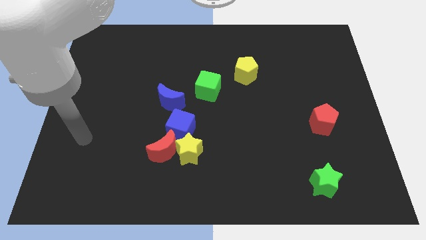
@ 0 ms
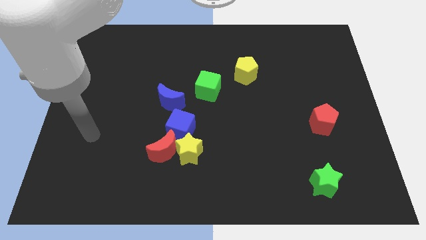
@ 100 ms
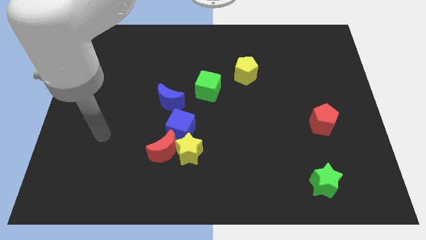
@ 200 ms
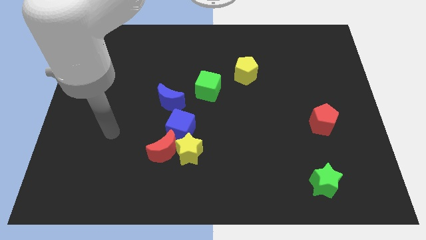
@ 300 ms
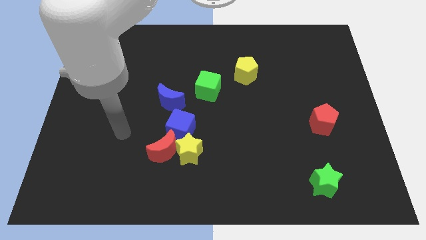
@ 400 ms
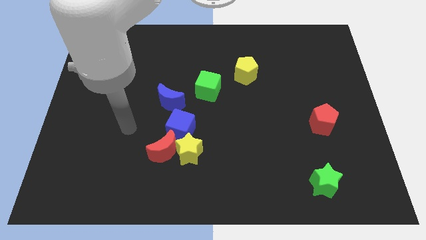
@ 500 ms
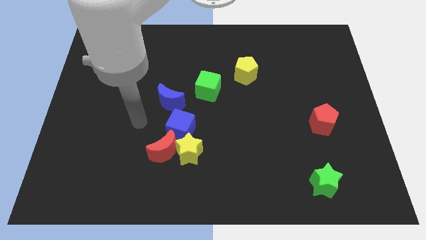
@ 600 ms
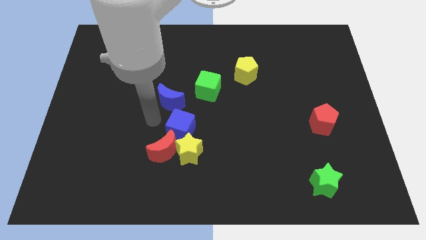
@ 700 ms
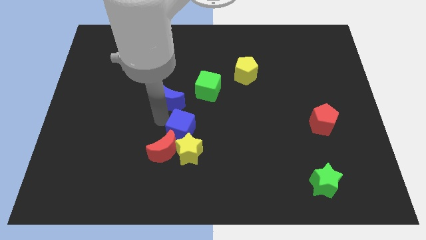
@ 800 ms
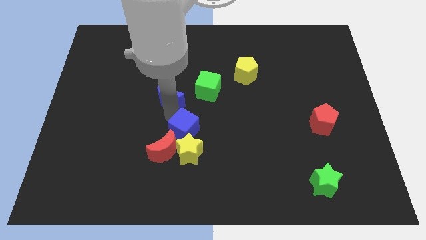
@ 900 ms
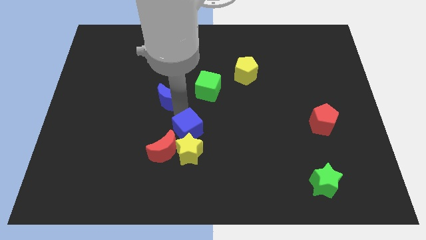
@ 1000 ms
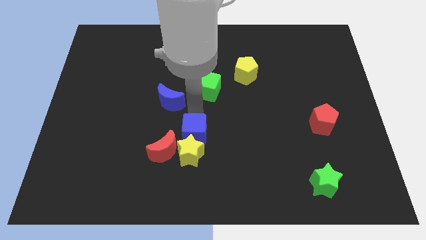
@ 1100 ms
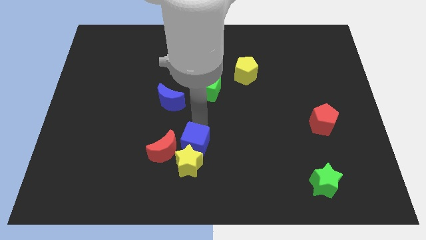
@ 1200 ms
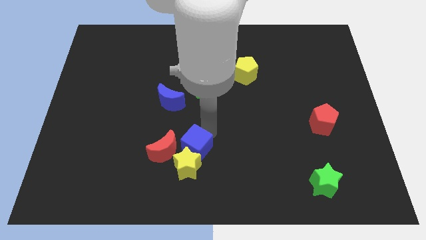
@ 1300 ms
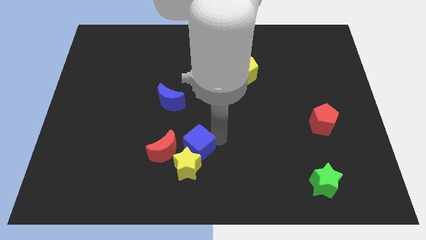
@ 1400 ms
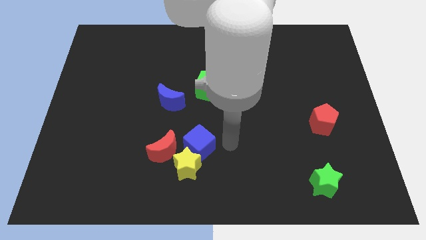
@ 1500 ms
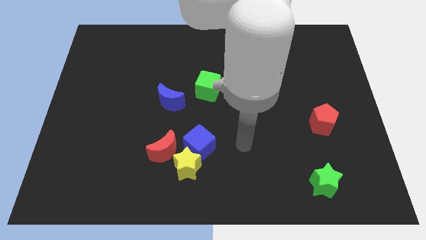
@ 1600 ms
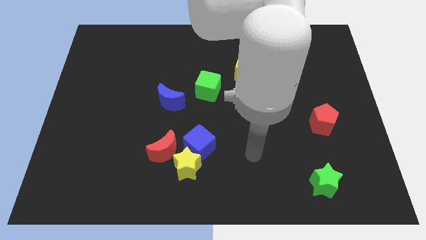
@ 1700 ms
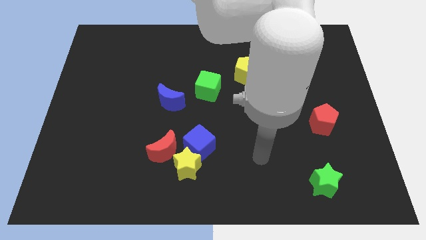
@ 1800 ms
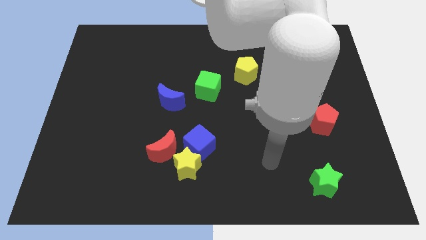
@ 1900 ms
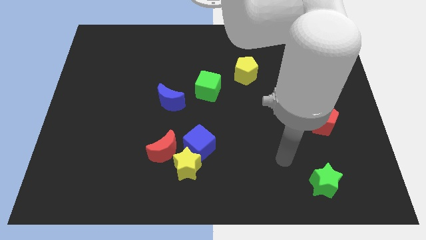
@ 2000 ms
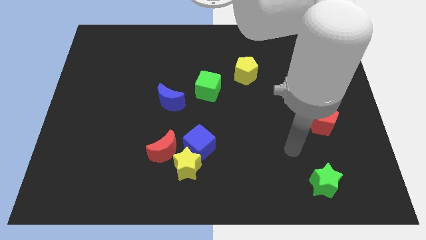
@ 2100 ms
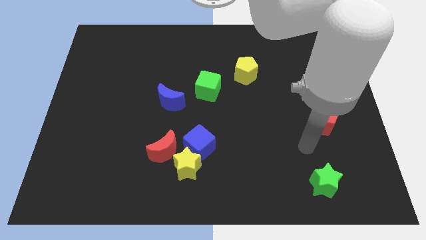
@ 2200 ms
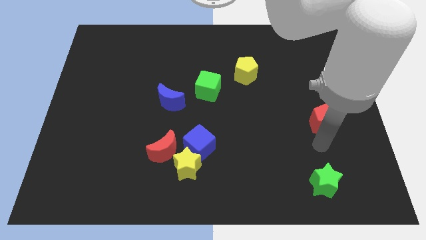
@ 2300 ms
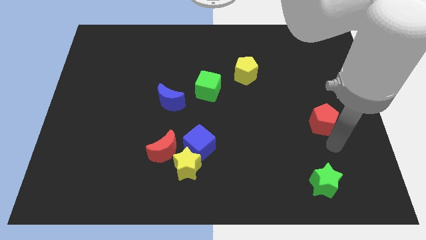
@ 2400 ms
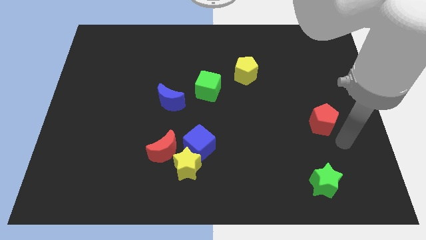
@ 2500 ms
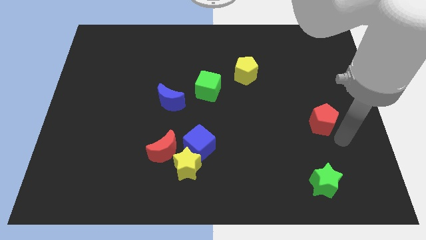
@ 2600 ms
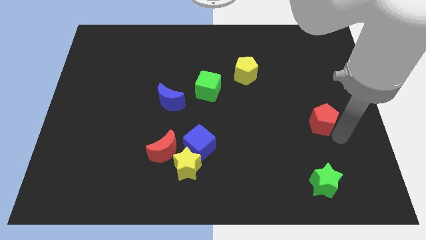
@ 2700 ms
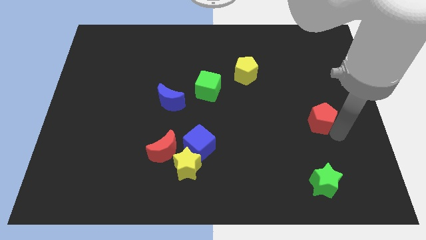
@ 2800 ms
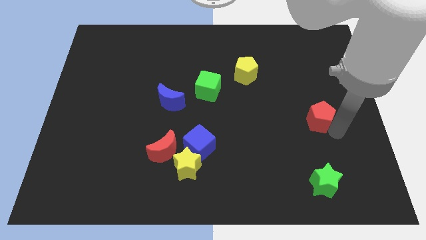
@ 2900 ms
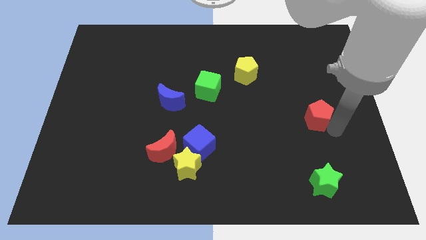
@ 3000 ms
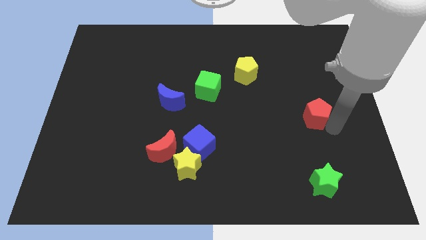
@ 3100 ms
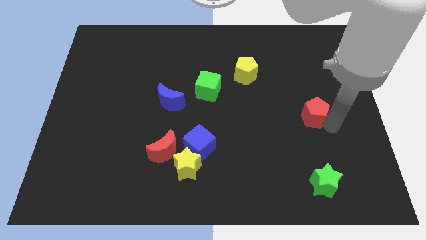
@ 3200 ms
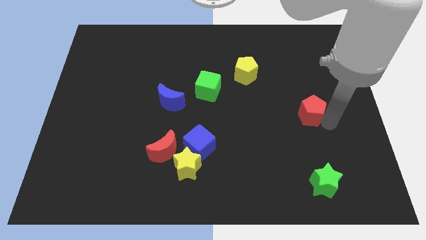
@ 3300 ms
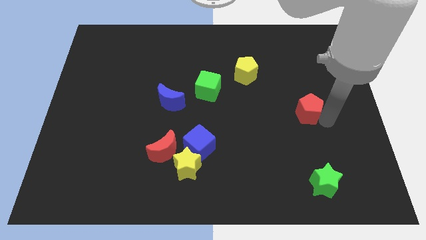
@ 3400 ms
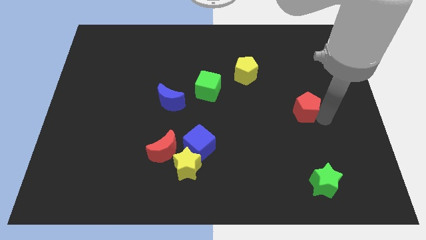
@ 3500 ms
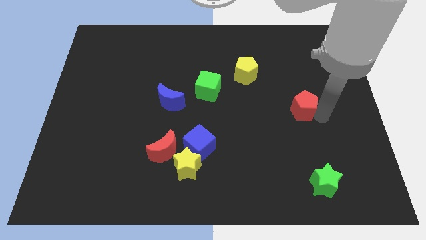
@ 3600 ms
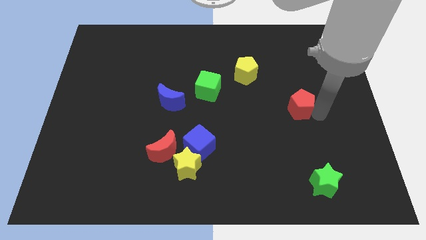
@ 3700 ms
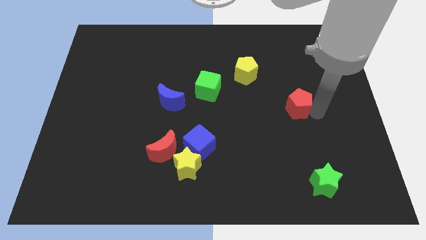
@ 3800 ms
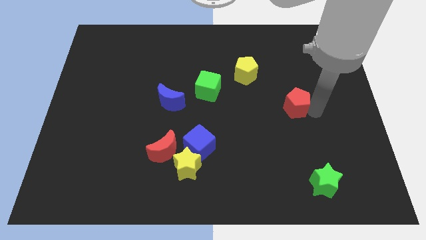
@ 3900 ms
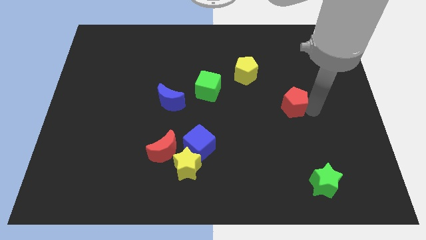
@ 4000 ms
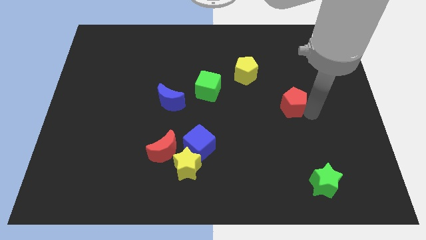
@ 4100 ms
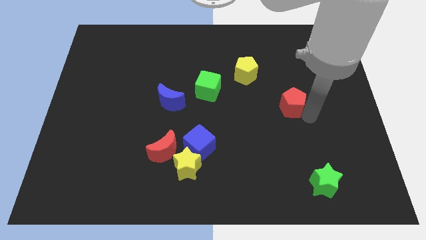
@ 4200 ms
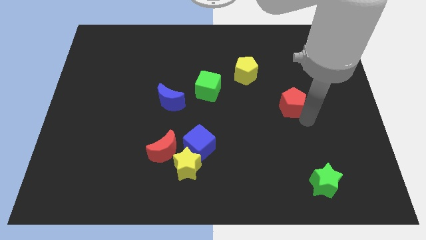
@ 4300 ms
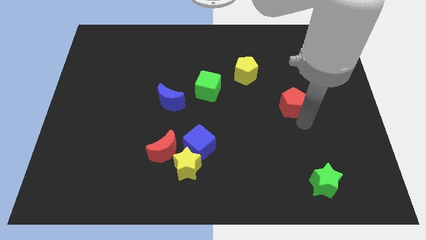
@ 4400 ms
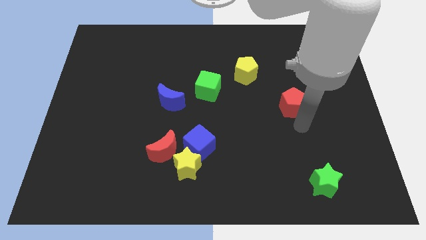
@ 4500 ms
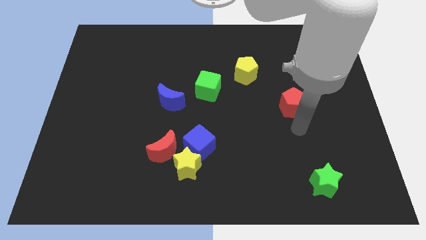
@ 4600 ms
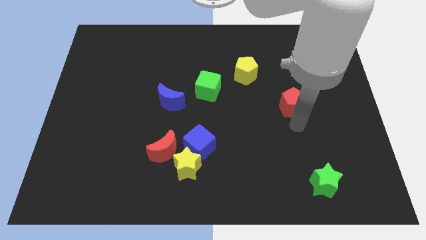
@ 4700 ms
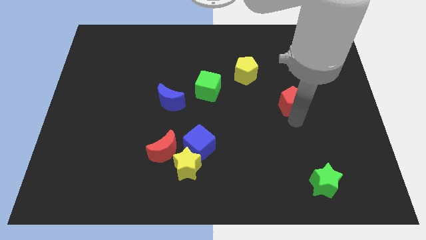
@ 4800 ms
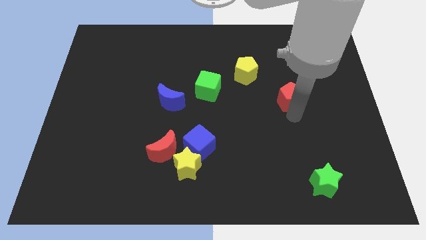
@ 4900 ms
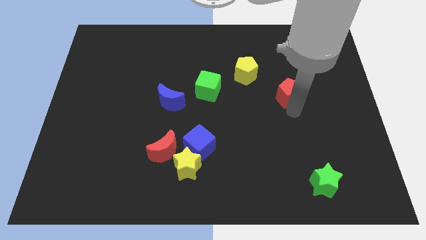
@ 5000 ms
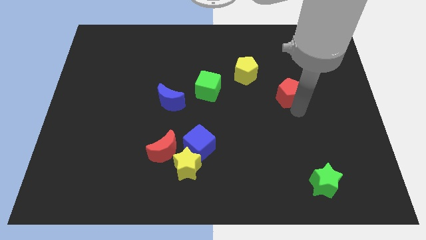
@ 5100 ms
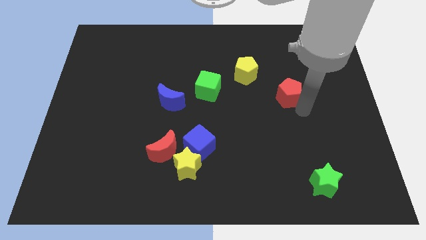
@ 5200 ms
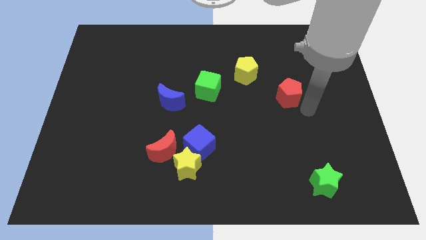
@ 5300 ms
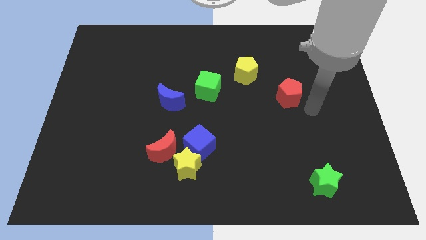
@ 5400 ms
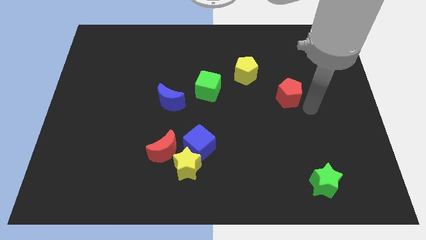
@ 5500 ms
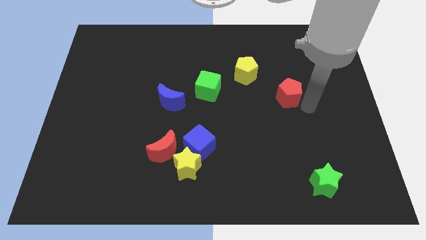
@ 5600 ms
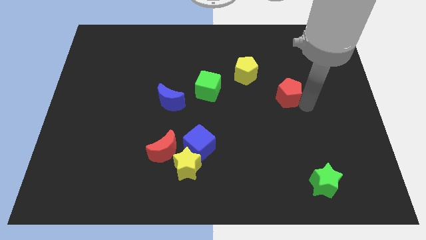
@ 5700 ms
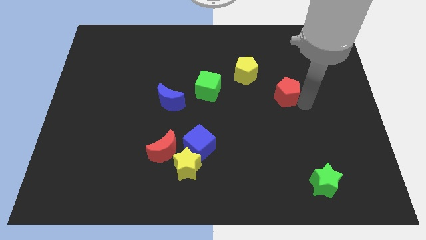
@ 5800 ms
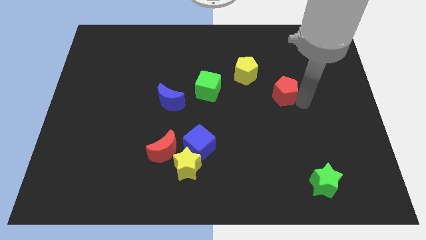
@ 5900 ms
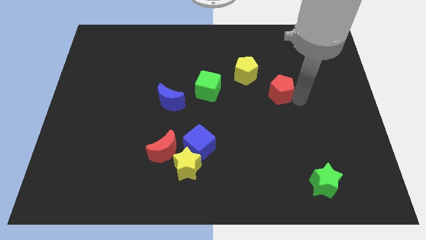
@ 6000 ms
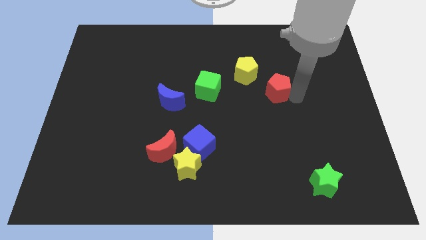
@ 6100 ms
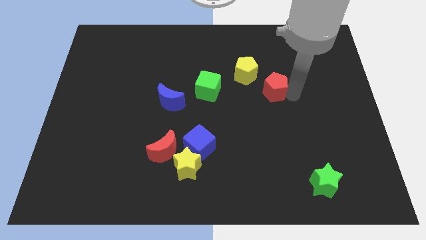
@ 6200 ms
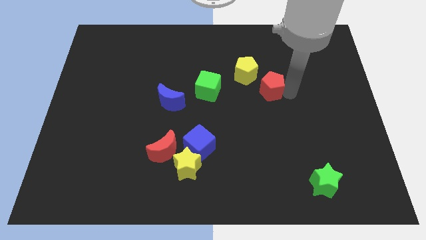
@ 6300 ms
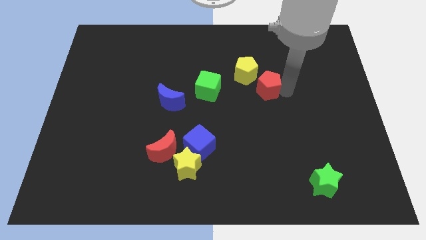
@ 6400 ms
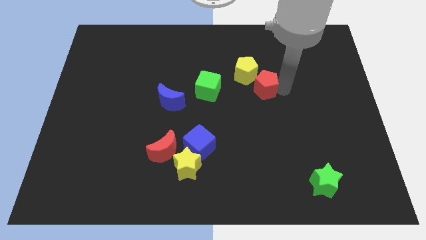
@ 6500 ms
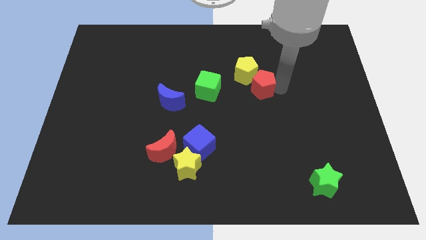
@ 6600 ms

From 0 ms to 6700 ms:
move the red pentagon towards the yellow pentagon

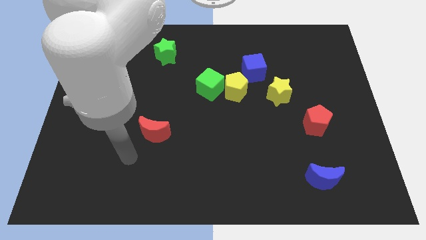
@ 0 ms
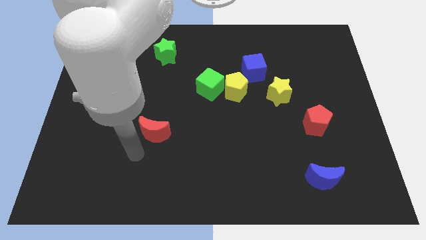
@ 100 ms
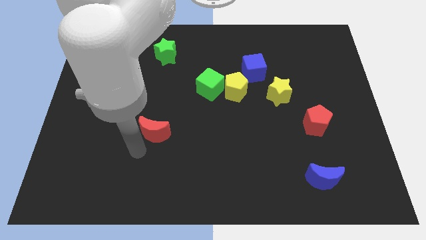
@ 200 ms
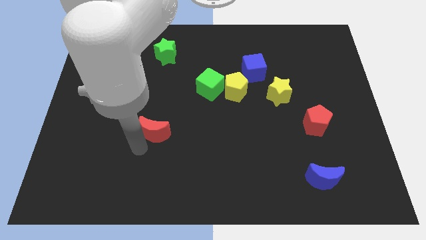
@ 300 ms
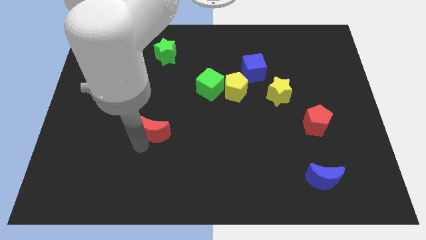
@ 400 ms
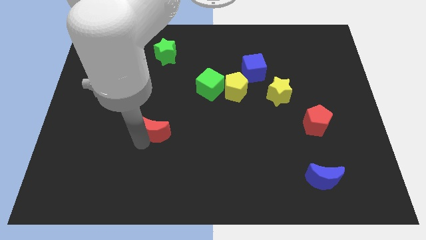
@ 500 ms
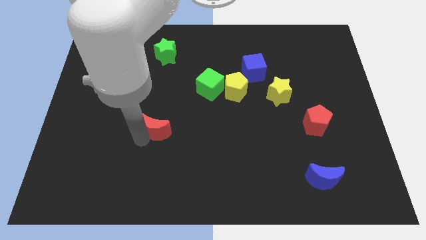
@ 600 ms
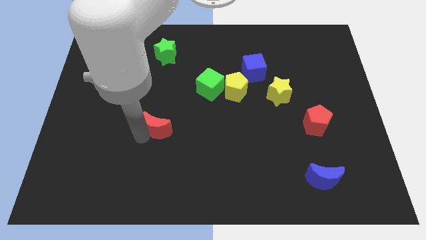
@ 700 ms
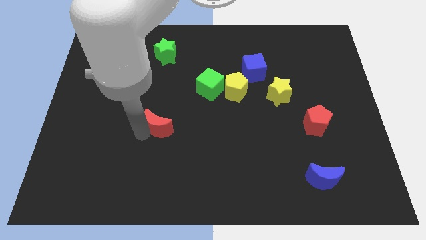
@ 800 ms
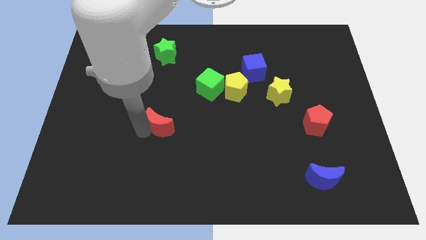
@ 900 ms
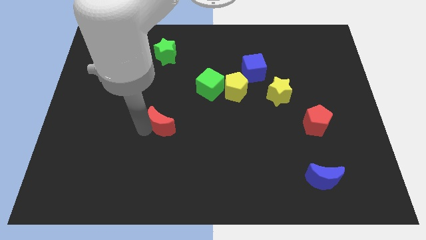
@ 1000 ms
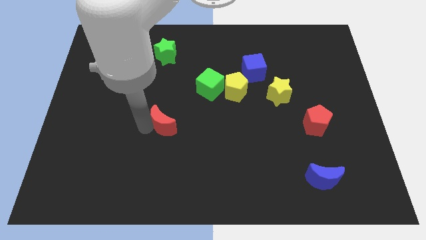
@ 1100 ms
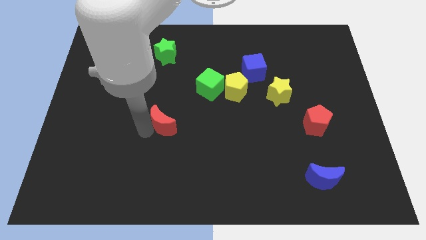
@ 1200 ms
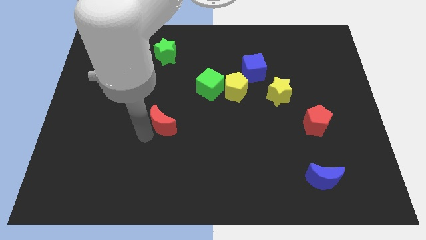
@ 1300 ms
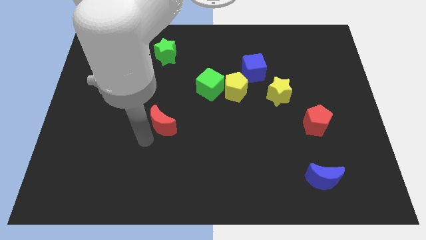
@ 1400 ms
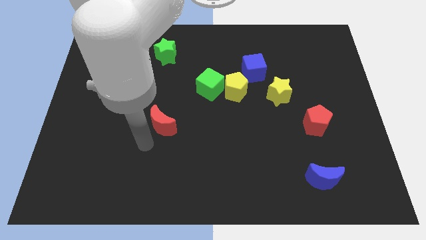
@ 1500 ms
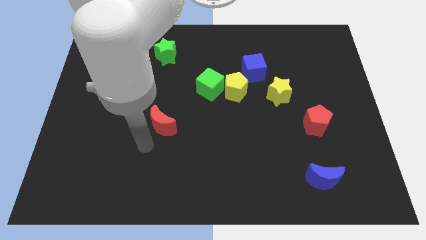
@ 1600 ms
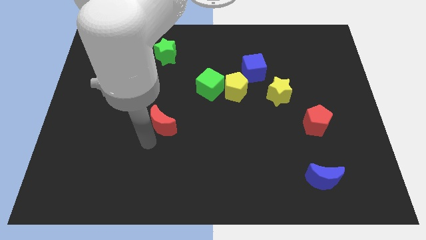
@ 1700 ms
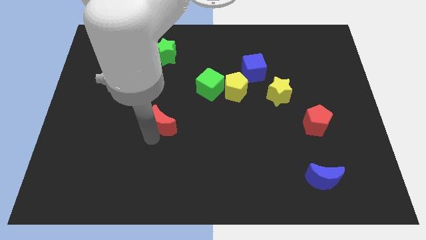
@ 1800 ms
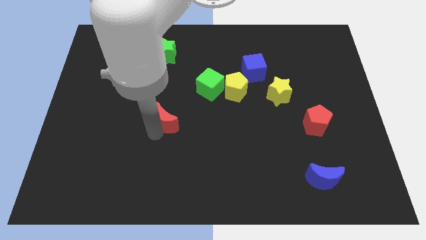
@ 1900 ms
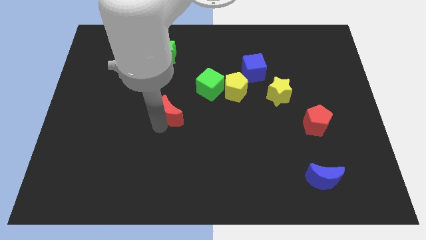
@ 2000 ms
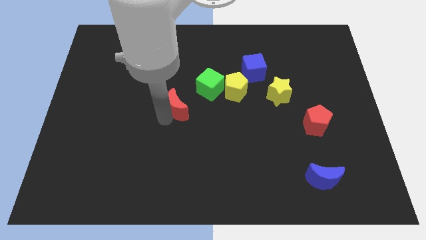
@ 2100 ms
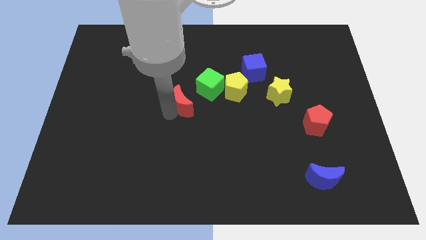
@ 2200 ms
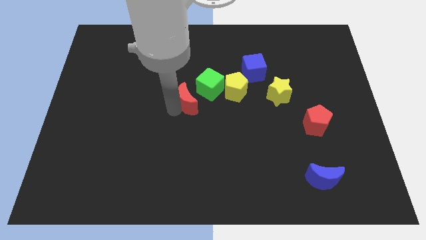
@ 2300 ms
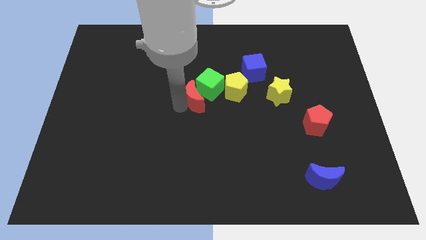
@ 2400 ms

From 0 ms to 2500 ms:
slide the red moon to the green cube
